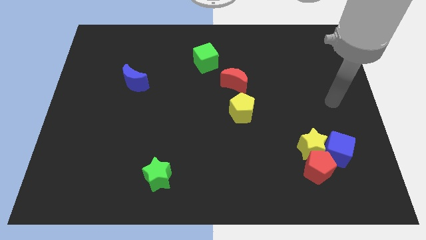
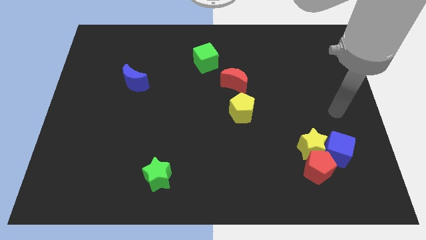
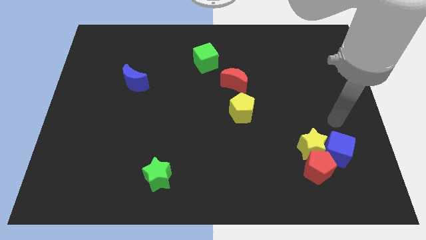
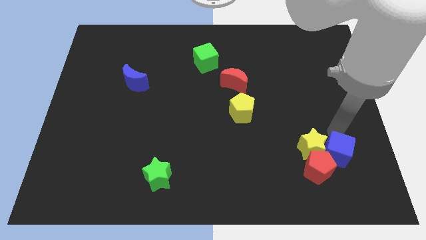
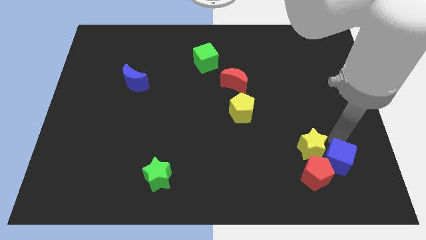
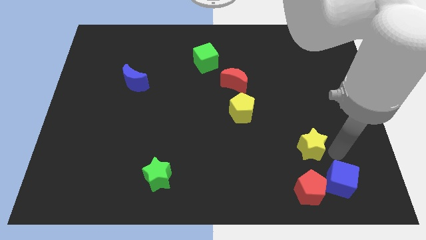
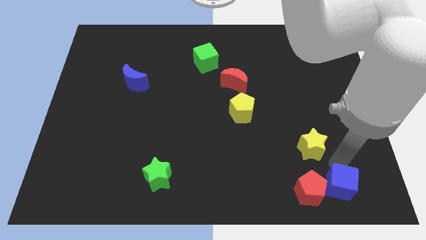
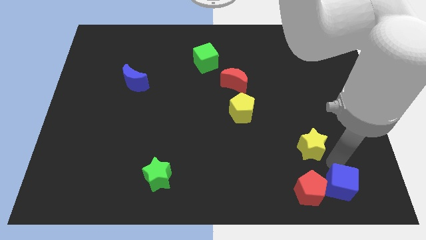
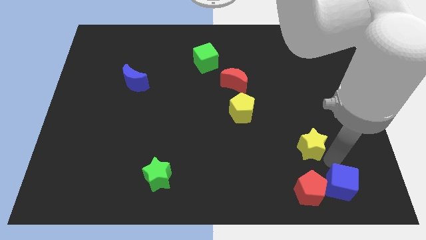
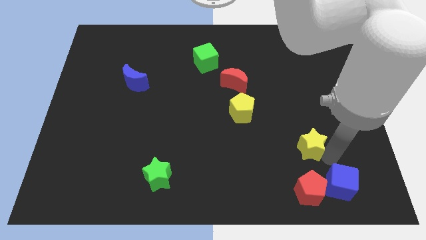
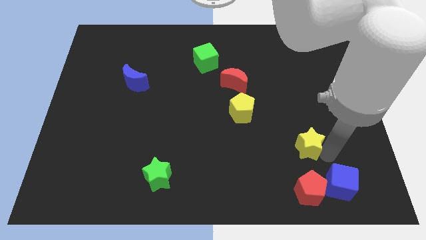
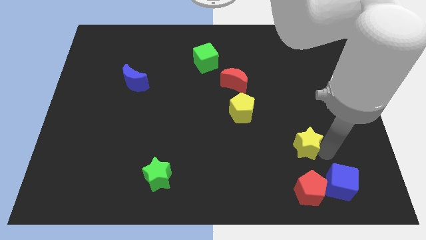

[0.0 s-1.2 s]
move the yellow star away from the blue cube and red pentagon

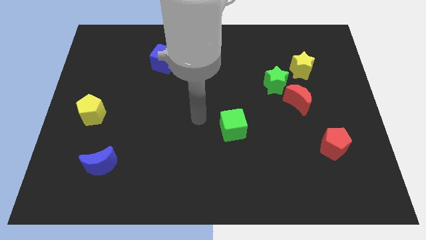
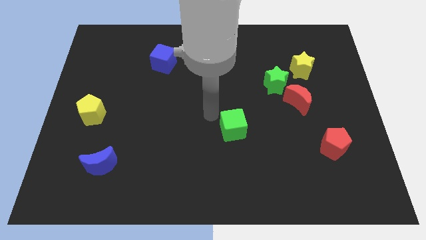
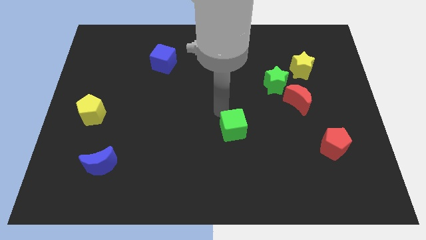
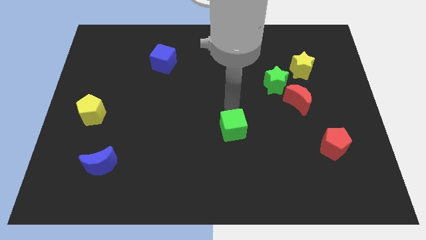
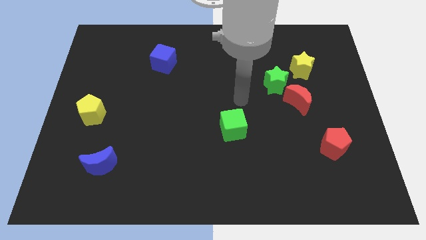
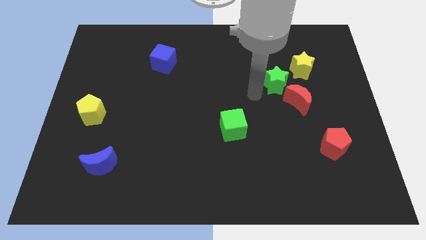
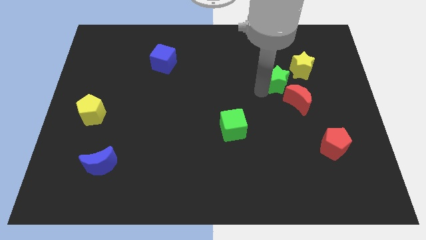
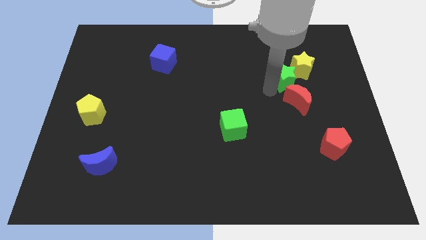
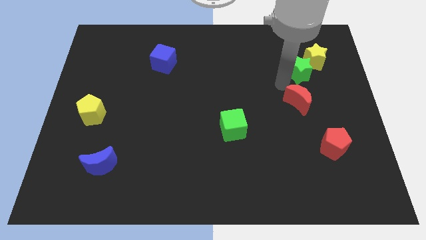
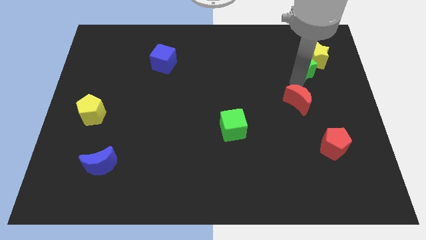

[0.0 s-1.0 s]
pull the red moon apart from the green star

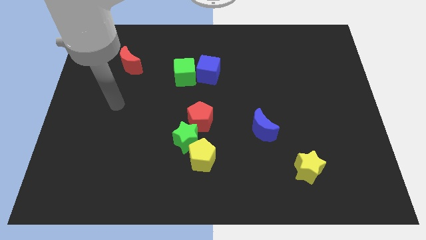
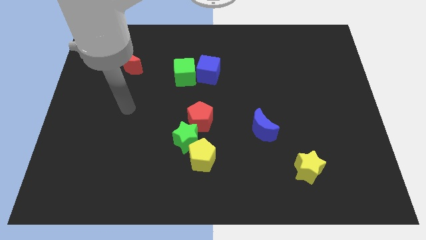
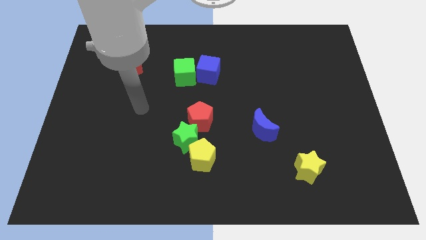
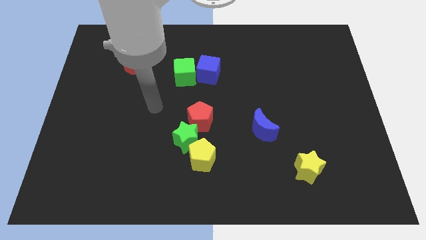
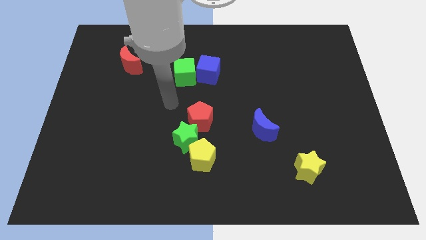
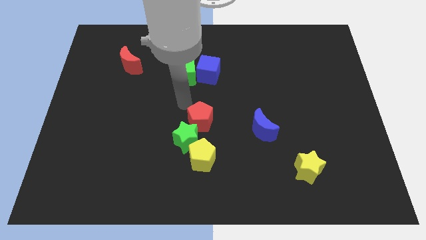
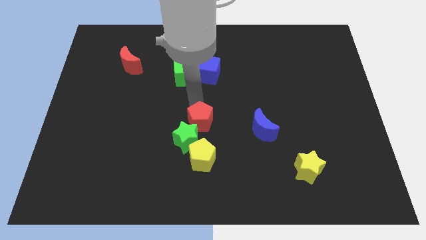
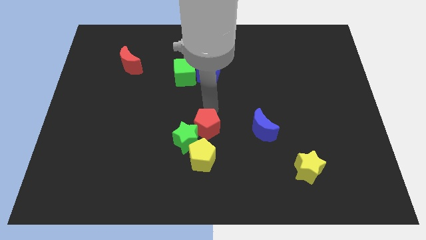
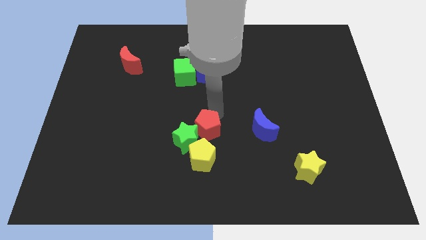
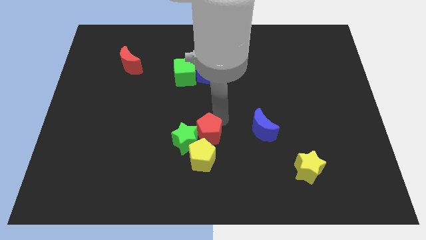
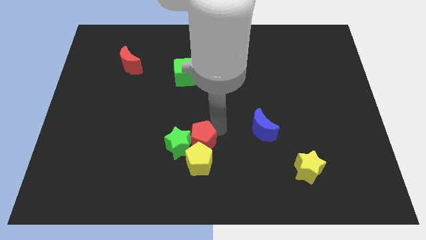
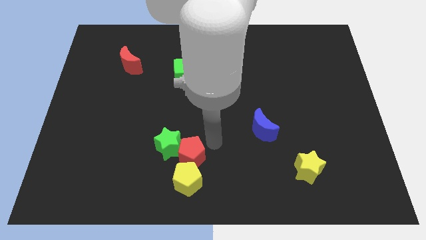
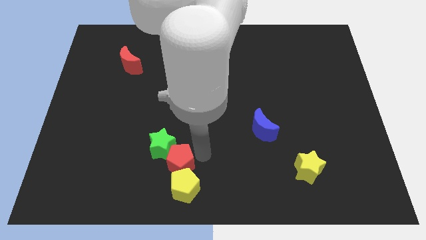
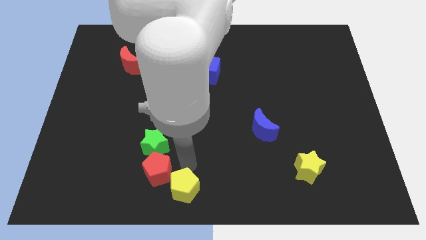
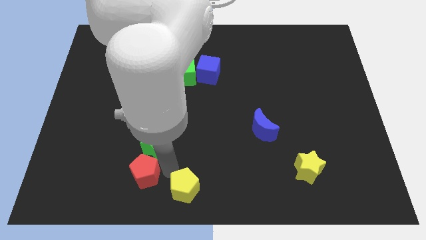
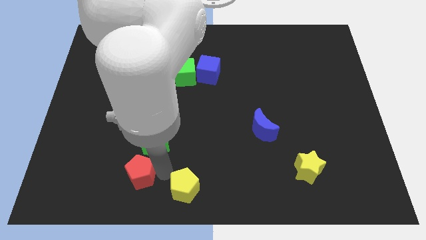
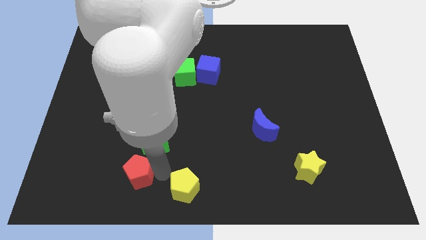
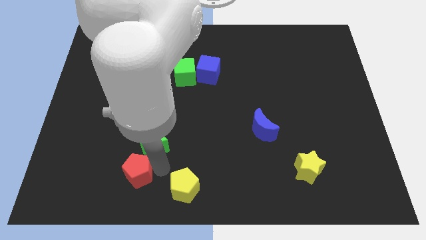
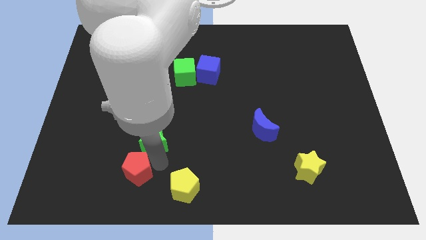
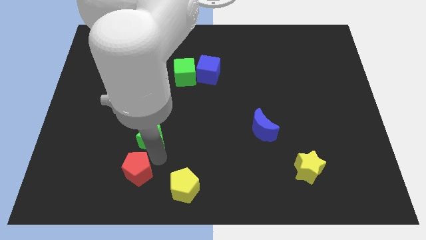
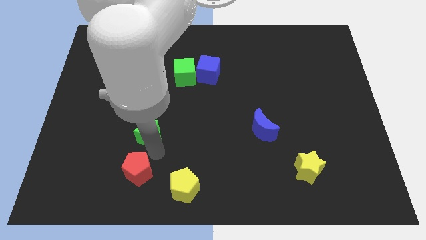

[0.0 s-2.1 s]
pull the green star apart from the yellow pentagon and red pentagon

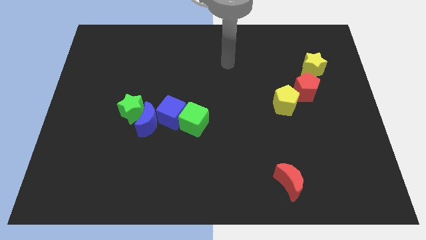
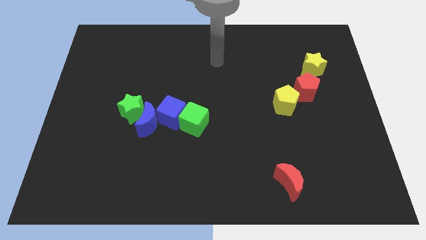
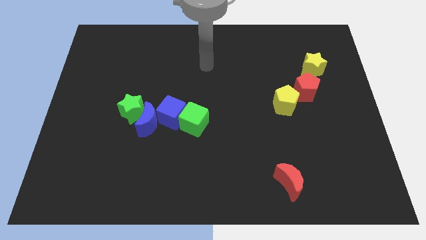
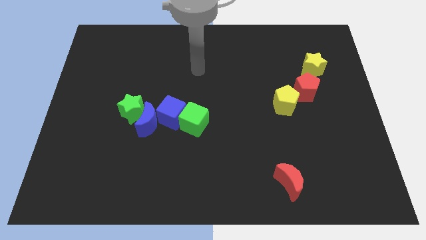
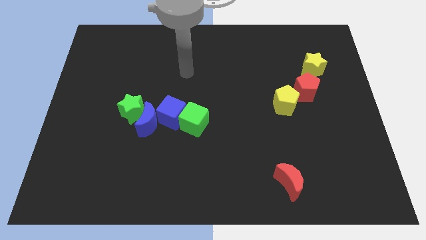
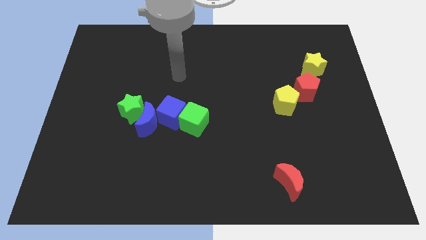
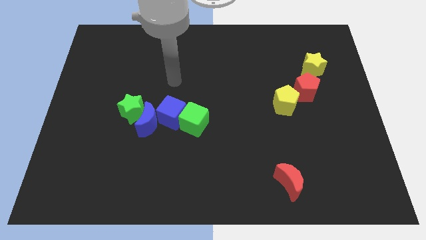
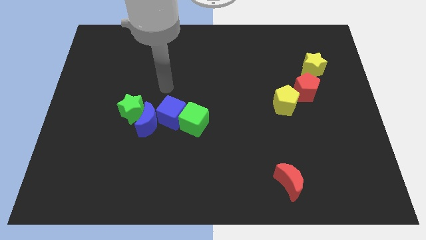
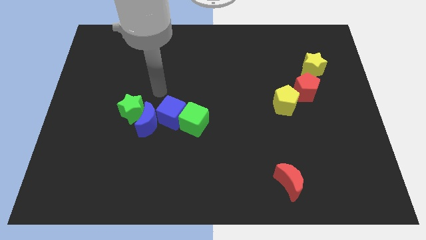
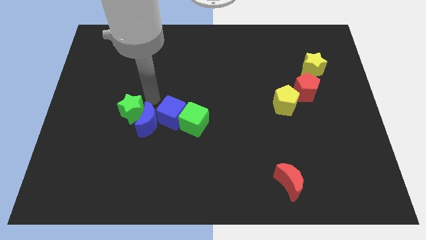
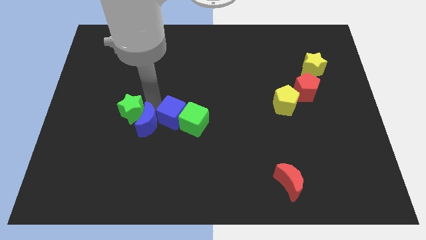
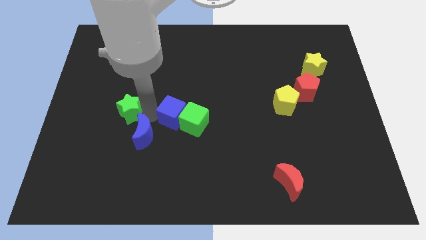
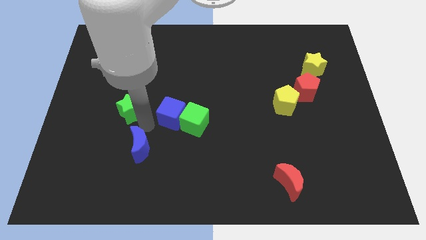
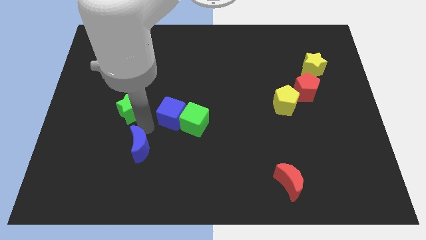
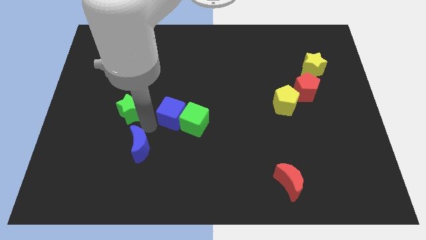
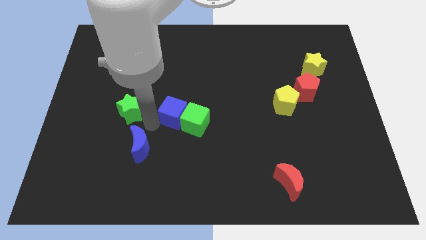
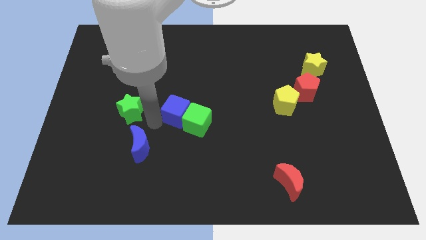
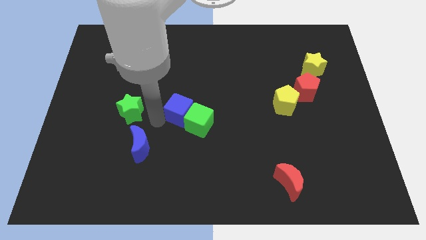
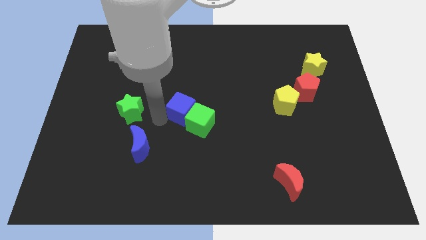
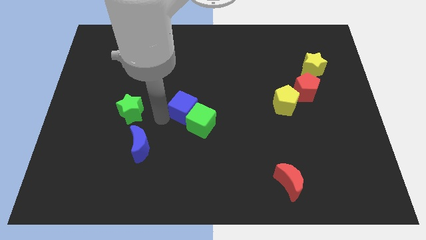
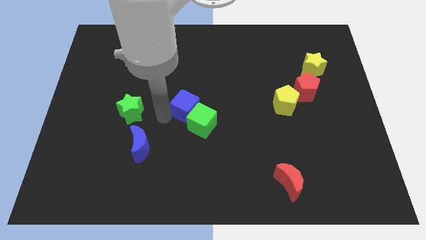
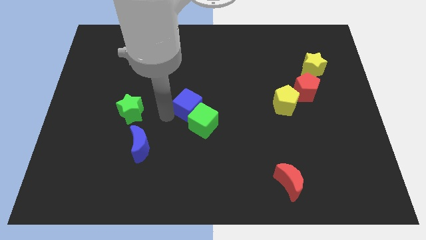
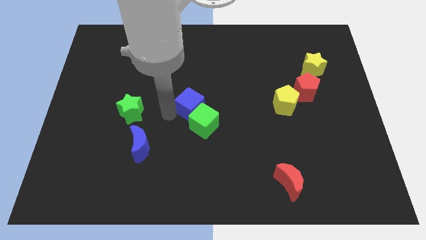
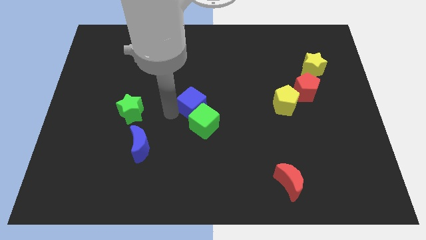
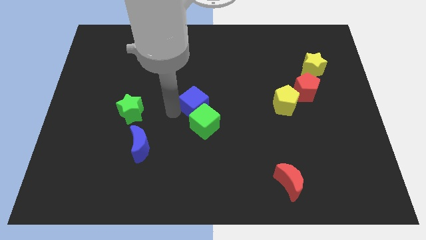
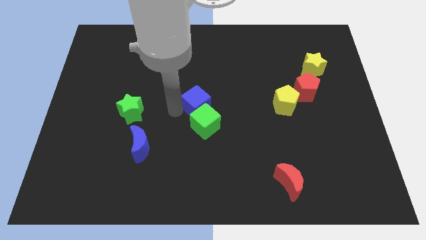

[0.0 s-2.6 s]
separate the blue cube from the group of blocks

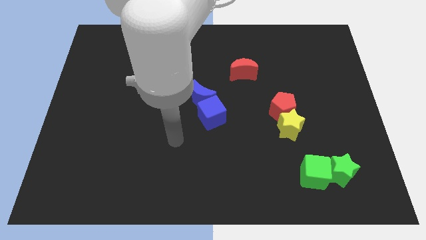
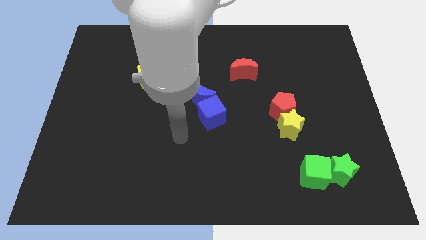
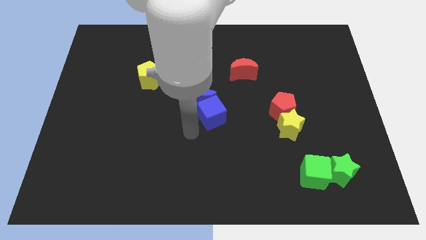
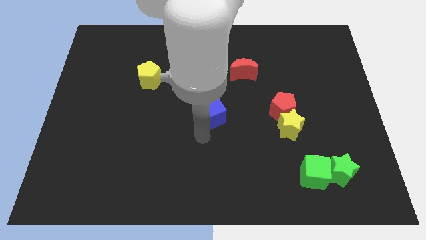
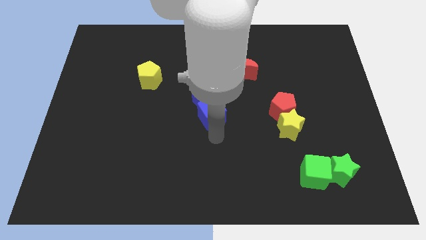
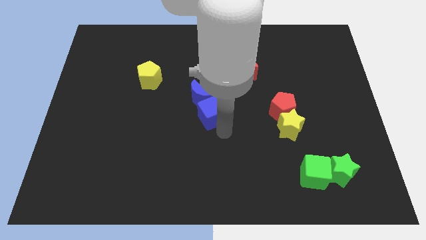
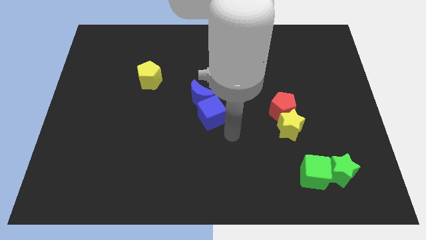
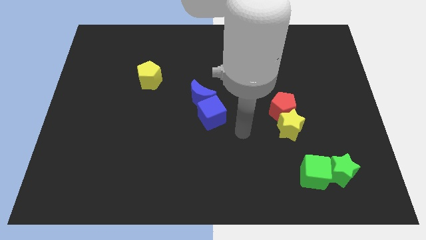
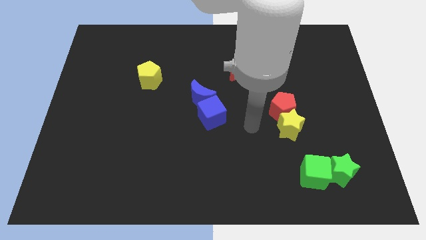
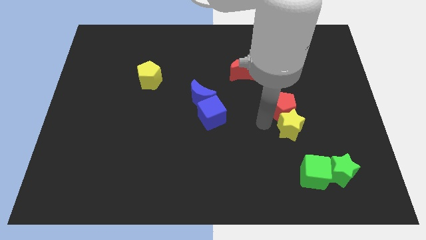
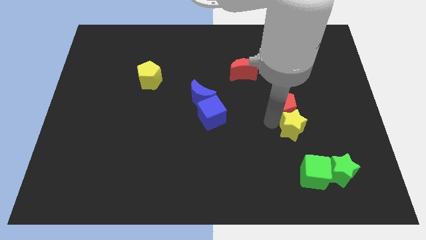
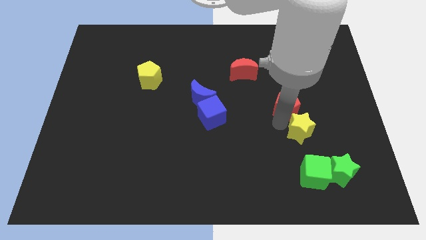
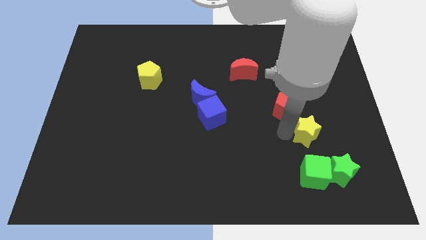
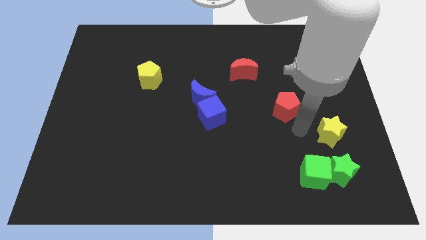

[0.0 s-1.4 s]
move the red pentagon away from the yellow star

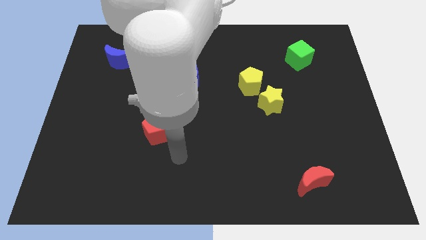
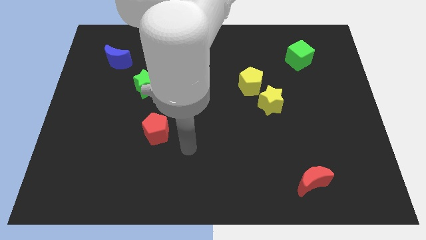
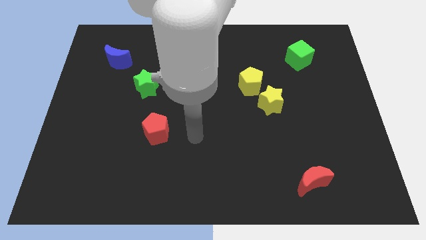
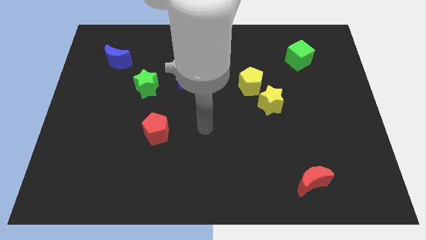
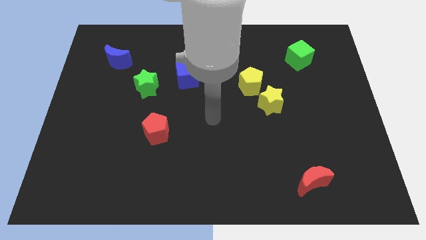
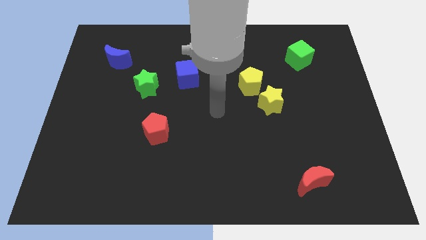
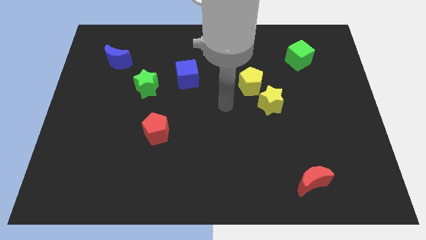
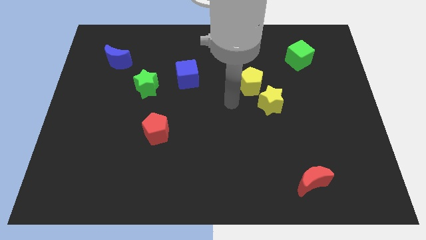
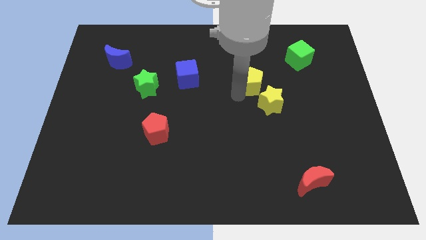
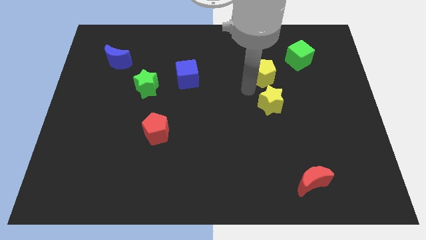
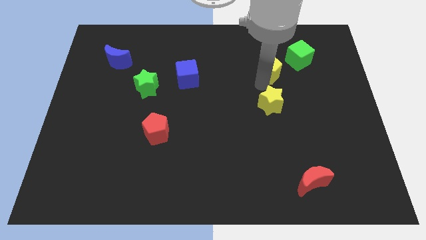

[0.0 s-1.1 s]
separate the yellow star from the yellow pentagon
